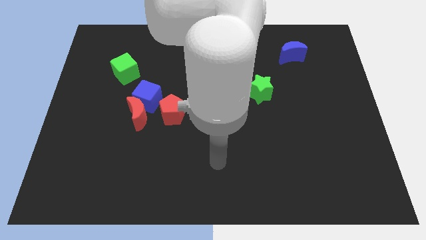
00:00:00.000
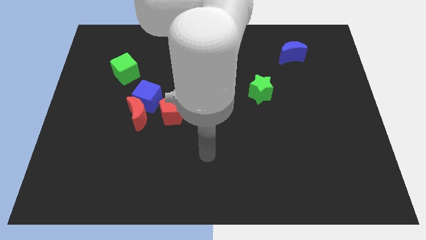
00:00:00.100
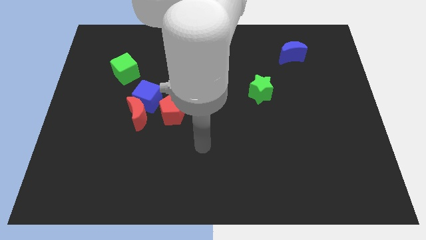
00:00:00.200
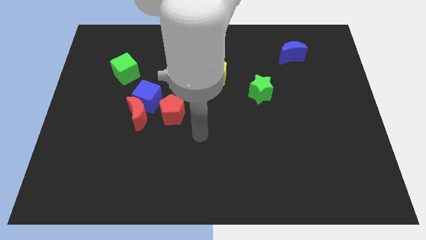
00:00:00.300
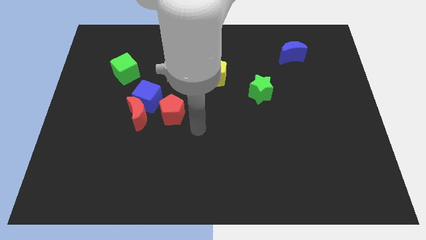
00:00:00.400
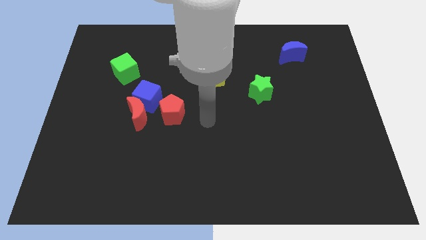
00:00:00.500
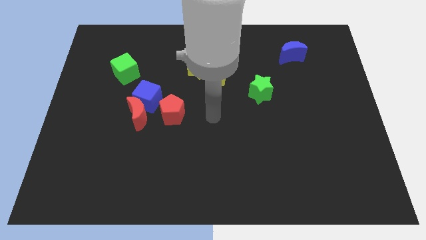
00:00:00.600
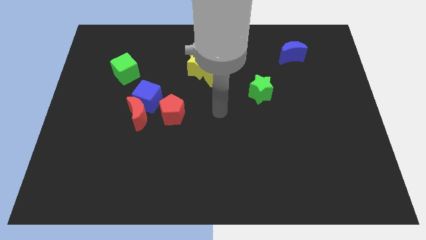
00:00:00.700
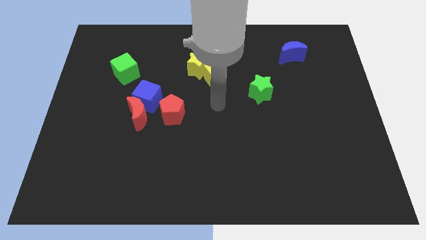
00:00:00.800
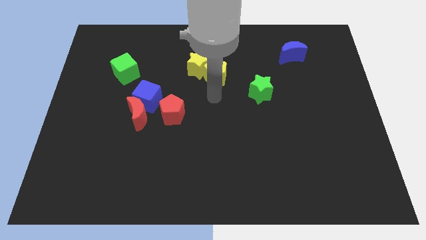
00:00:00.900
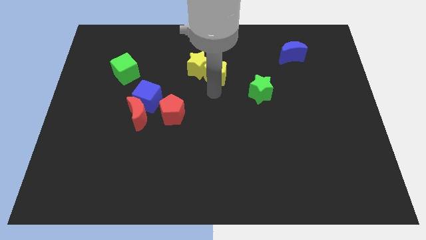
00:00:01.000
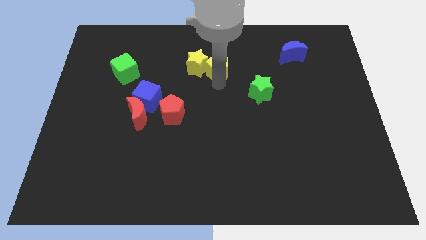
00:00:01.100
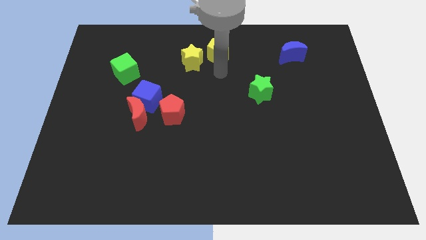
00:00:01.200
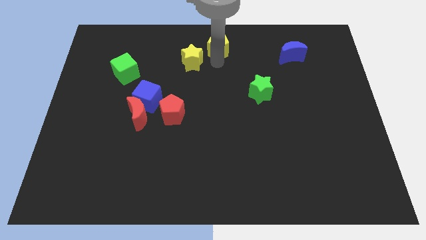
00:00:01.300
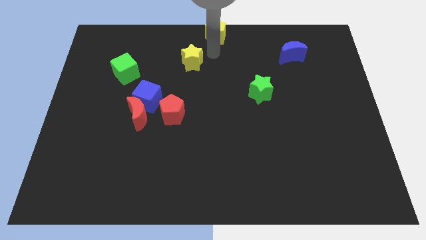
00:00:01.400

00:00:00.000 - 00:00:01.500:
separate the yellow star from the yellow pentagon

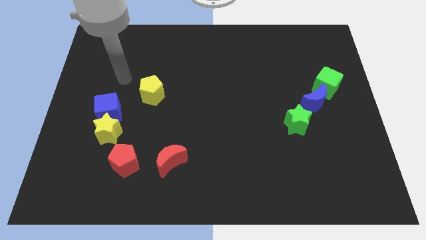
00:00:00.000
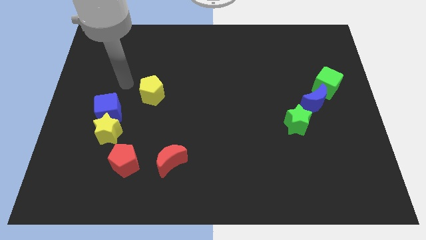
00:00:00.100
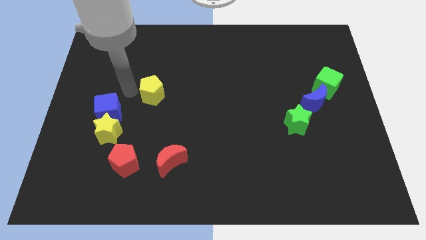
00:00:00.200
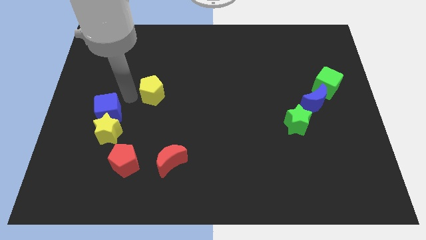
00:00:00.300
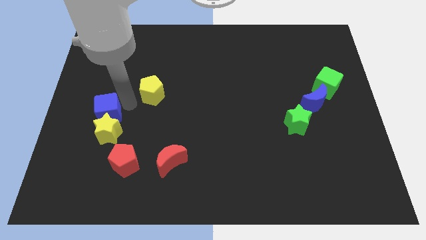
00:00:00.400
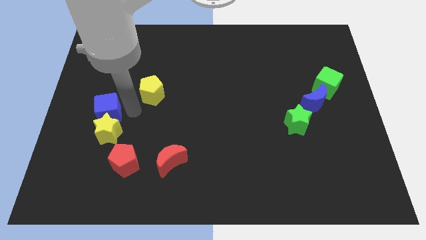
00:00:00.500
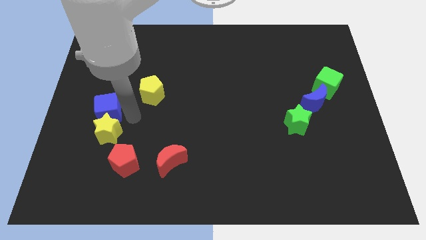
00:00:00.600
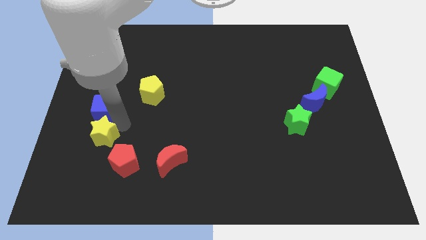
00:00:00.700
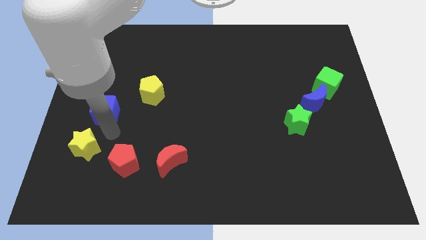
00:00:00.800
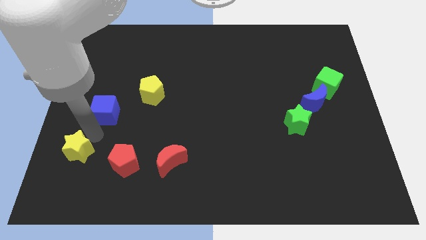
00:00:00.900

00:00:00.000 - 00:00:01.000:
move the blue cube away from the yellow star

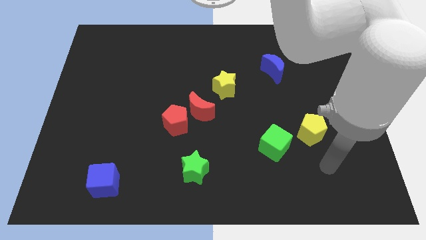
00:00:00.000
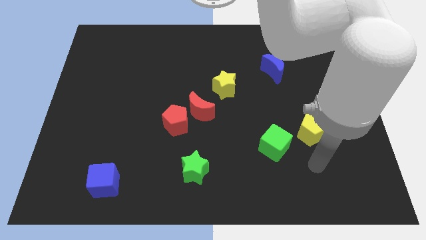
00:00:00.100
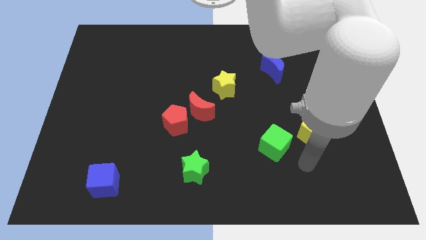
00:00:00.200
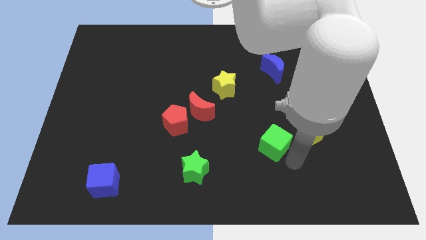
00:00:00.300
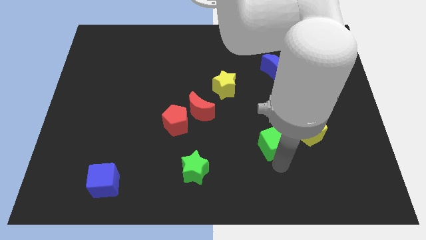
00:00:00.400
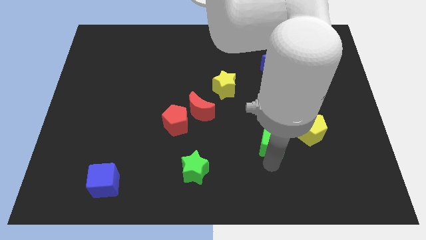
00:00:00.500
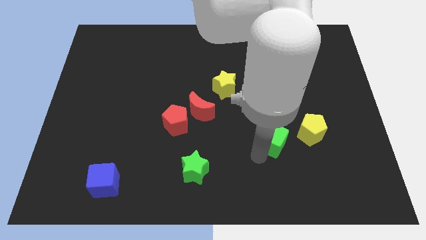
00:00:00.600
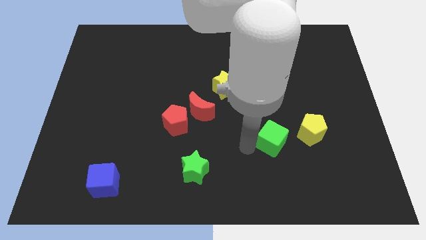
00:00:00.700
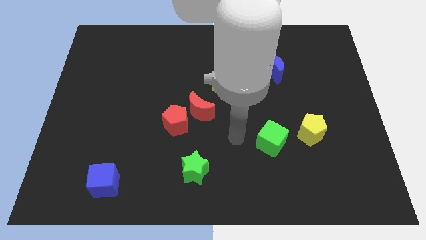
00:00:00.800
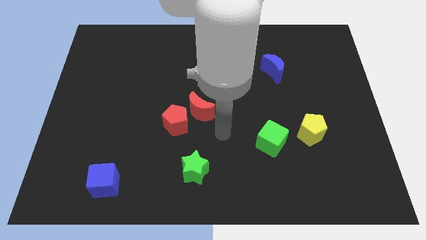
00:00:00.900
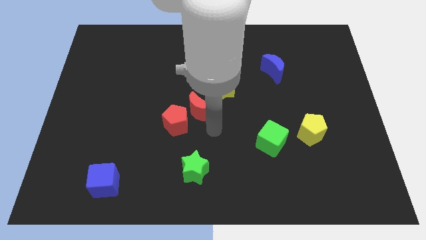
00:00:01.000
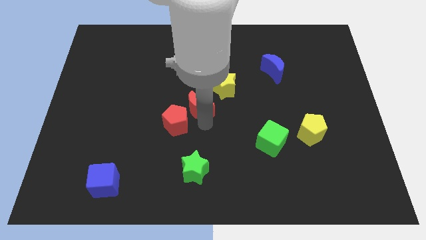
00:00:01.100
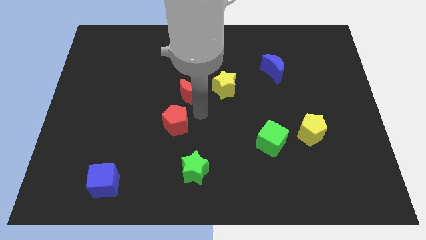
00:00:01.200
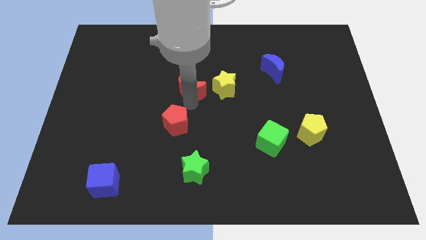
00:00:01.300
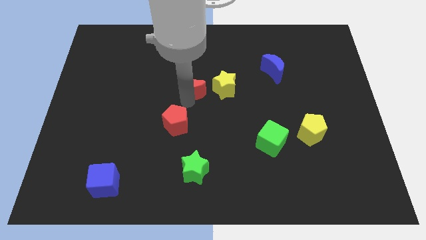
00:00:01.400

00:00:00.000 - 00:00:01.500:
move the red pentagon away from the red moon

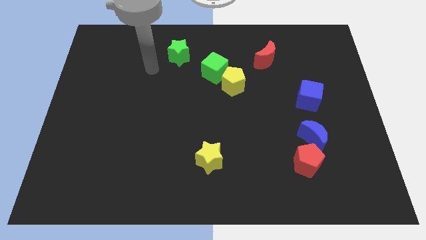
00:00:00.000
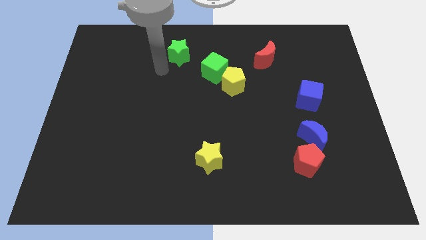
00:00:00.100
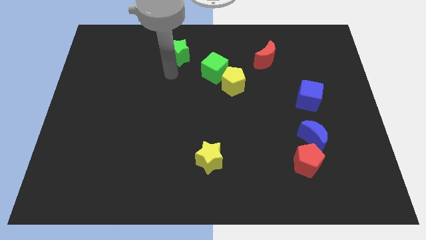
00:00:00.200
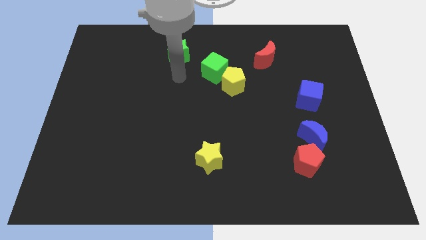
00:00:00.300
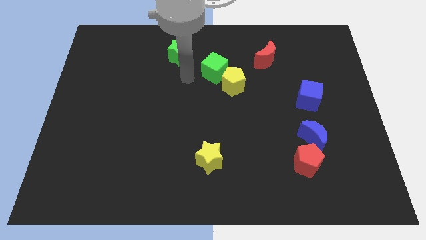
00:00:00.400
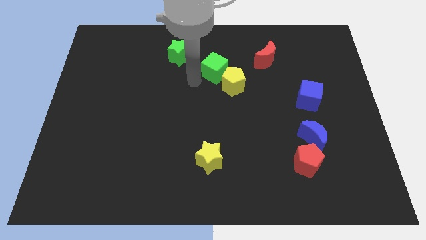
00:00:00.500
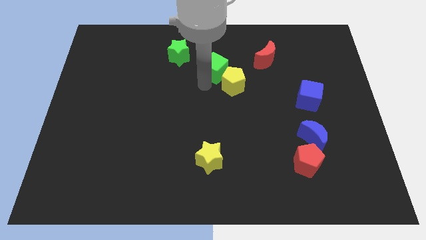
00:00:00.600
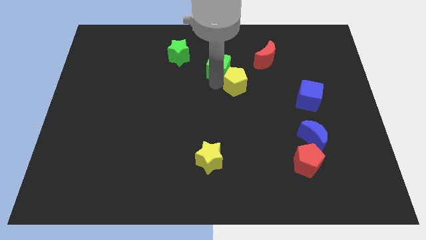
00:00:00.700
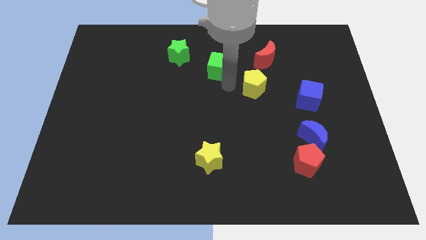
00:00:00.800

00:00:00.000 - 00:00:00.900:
separate the green cube from the yellow pentagon

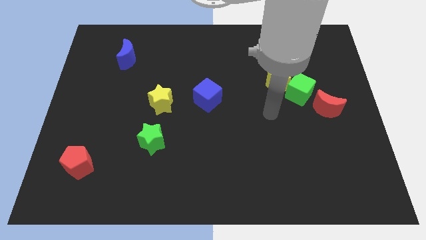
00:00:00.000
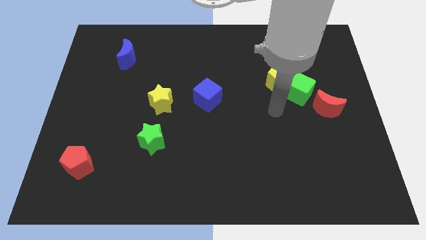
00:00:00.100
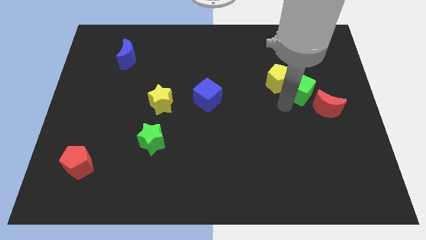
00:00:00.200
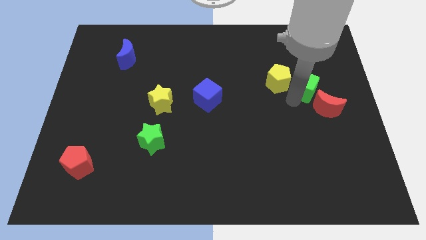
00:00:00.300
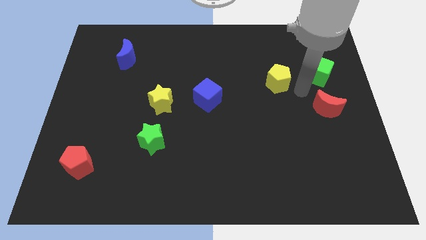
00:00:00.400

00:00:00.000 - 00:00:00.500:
move the yellow pentagon away from the green cube

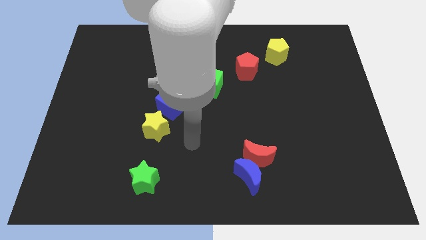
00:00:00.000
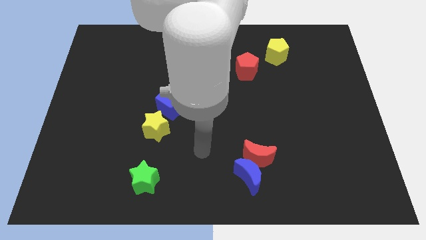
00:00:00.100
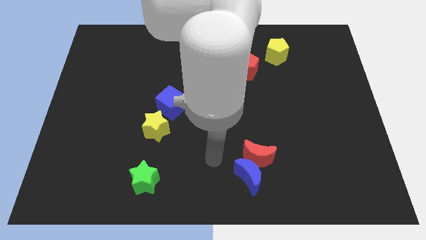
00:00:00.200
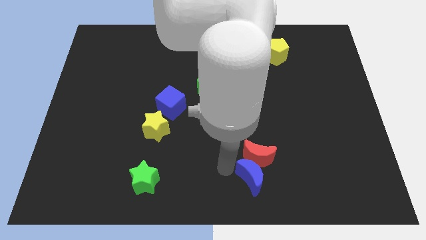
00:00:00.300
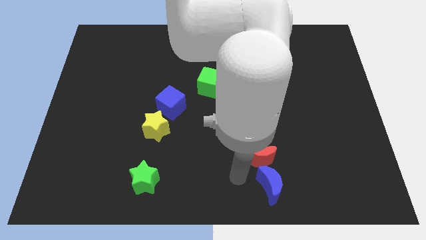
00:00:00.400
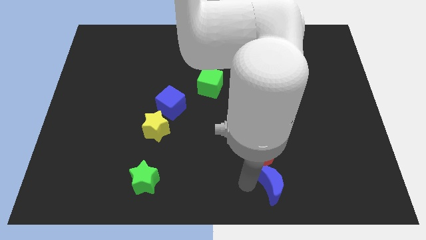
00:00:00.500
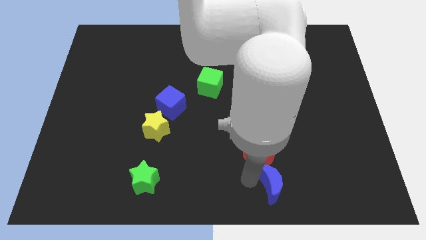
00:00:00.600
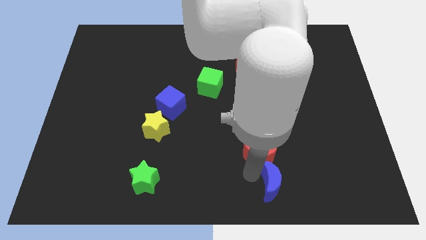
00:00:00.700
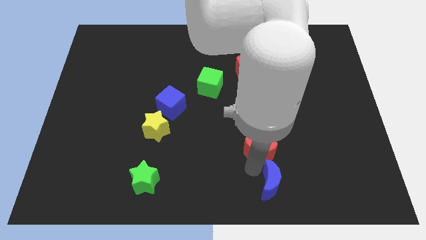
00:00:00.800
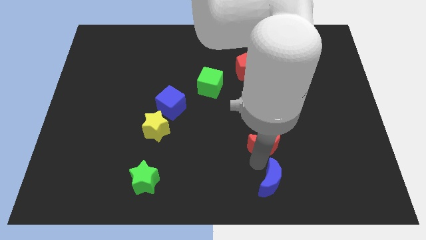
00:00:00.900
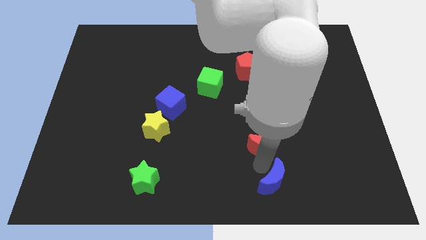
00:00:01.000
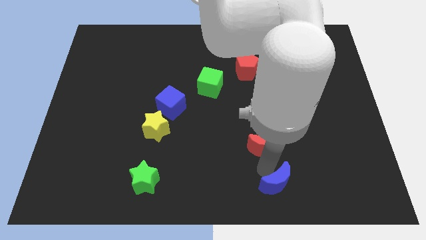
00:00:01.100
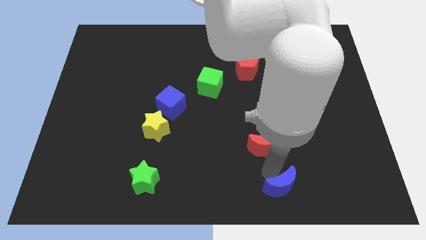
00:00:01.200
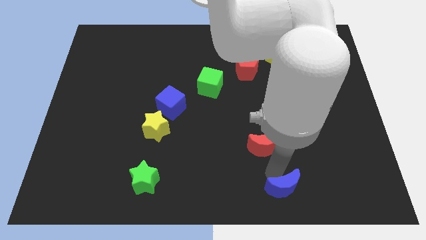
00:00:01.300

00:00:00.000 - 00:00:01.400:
pull the red moon apart from the blue moon

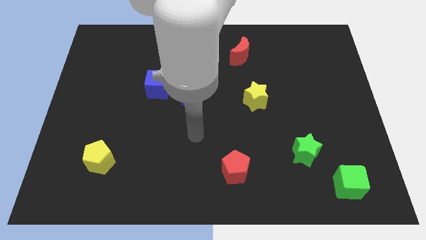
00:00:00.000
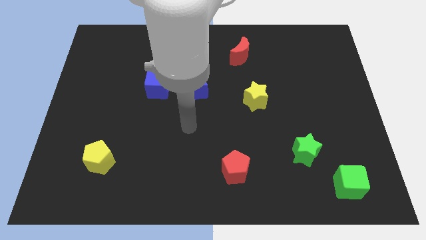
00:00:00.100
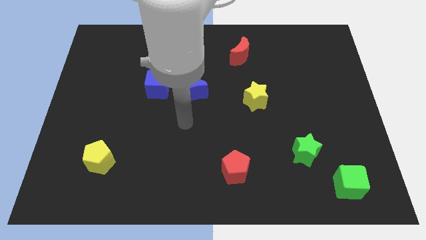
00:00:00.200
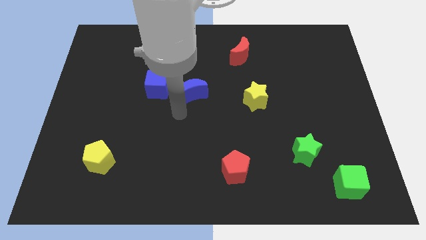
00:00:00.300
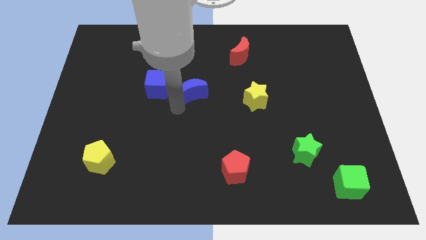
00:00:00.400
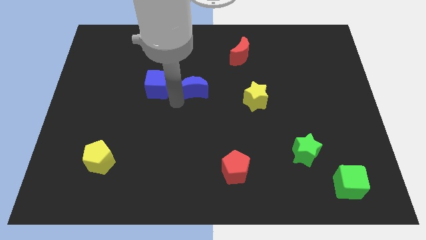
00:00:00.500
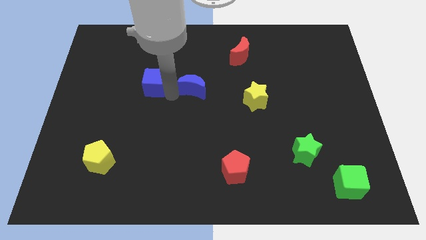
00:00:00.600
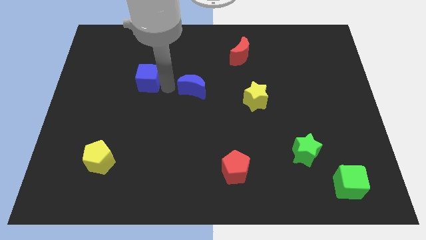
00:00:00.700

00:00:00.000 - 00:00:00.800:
separate the blue moon from the blue cube

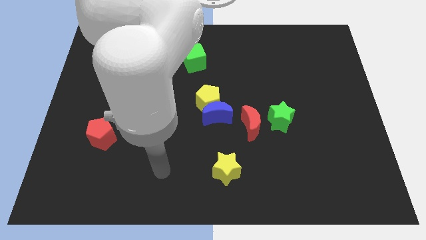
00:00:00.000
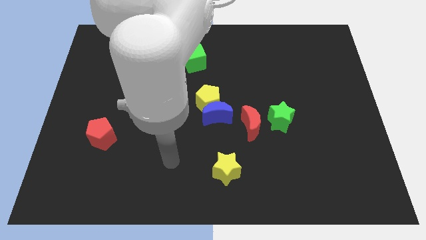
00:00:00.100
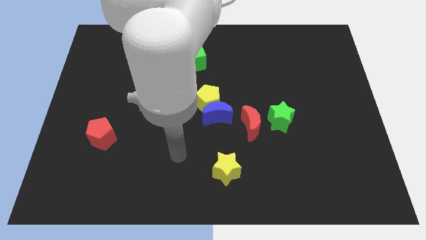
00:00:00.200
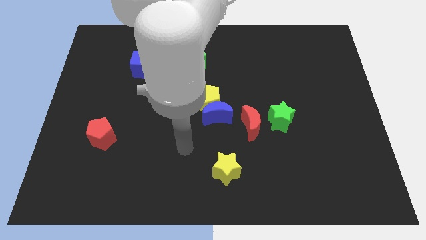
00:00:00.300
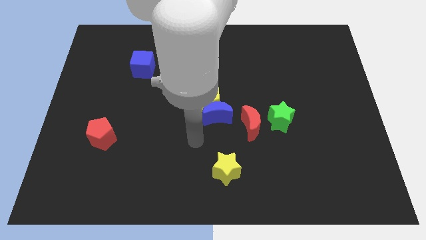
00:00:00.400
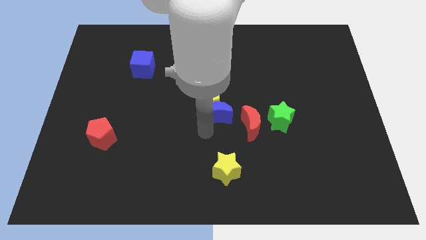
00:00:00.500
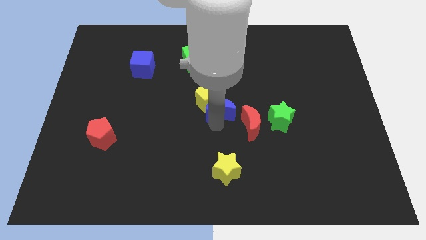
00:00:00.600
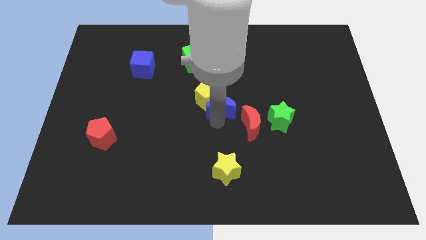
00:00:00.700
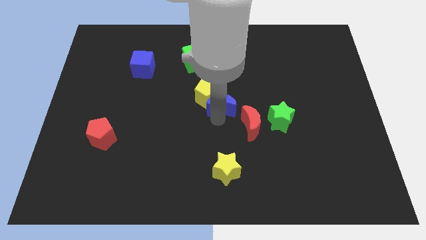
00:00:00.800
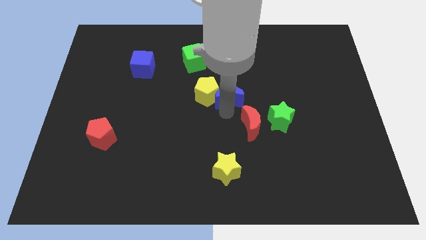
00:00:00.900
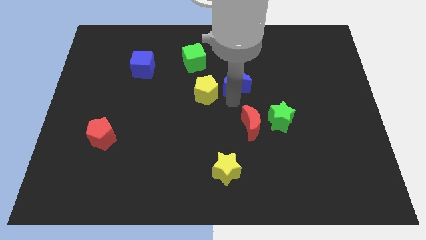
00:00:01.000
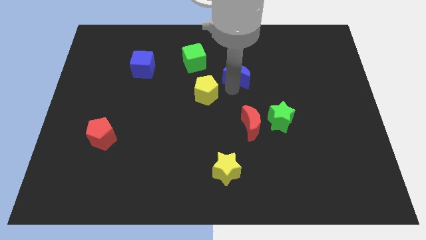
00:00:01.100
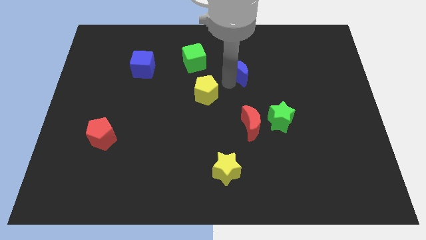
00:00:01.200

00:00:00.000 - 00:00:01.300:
move the yellow pentagon away from the blue moon

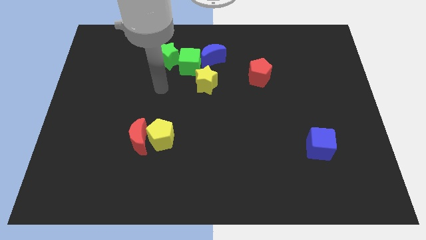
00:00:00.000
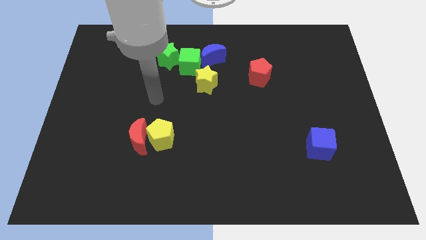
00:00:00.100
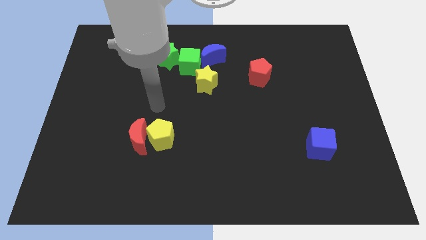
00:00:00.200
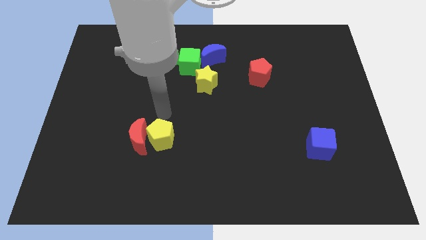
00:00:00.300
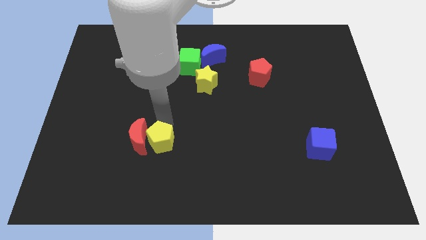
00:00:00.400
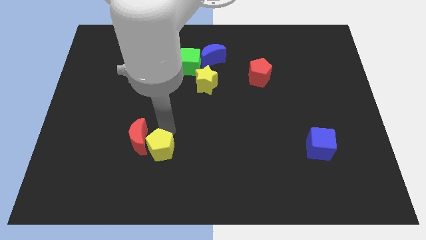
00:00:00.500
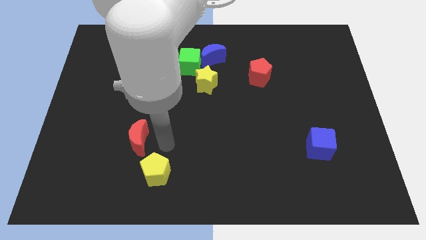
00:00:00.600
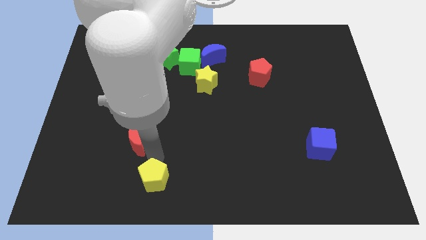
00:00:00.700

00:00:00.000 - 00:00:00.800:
pull the red moon apart from the yellow pentagon
